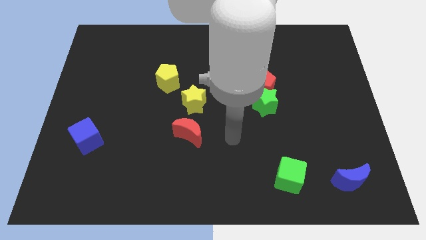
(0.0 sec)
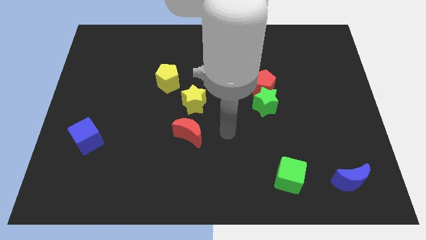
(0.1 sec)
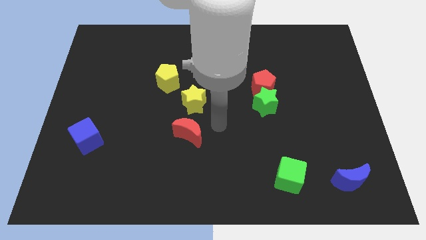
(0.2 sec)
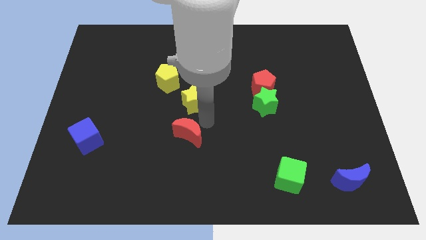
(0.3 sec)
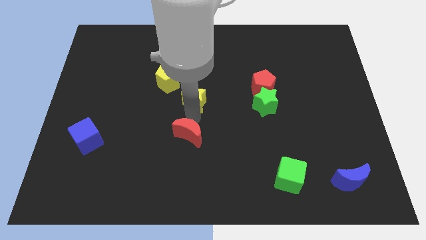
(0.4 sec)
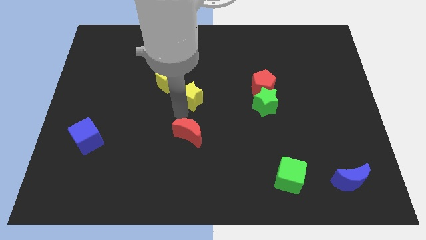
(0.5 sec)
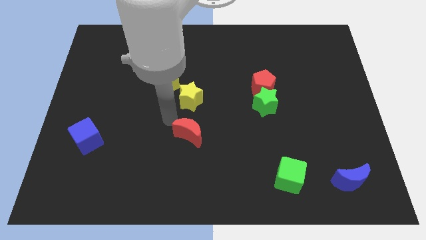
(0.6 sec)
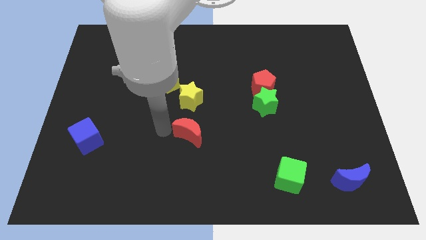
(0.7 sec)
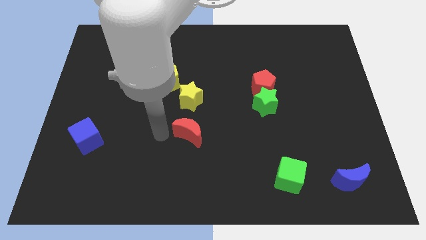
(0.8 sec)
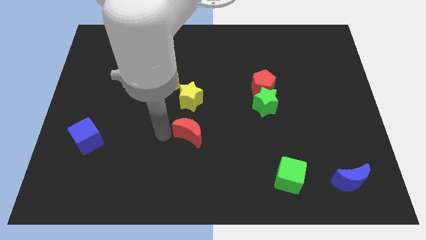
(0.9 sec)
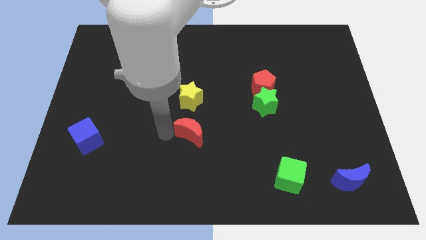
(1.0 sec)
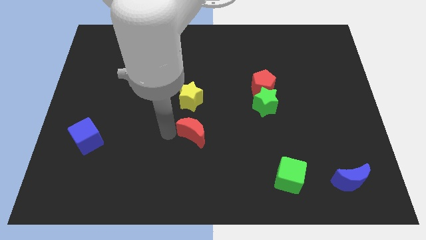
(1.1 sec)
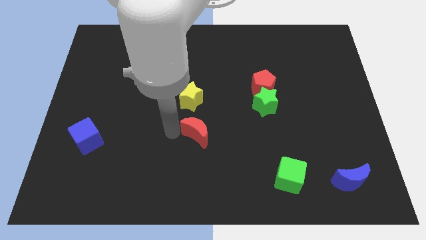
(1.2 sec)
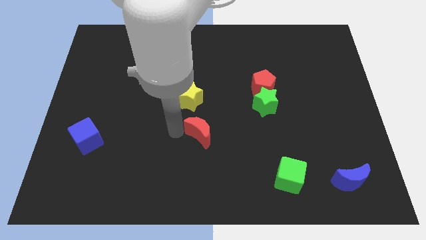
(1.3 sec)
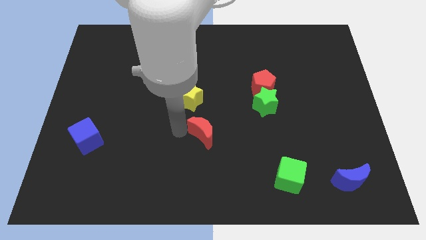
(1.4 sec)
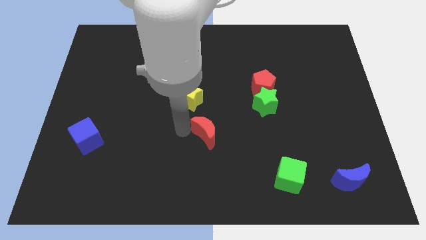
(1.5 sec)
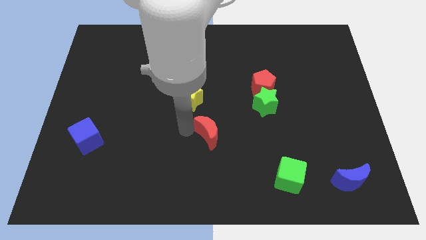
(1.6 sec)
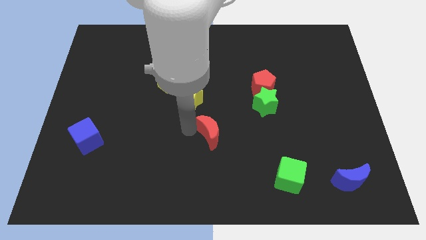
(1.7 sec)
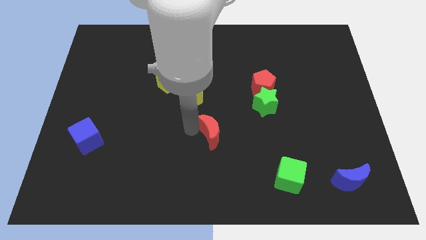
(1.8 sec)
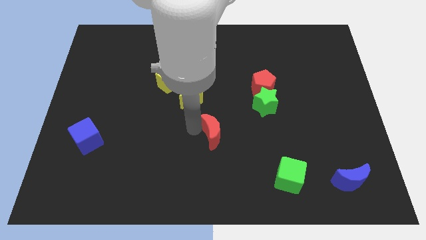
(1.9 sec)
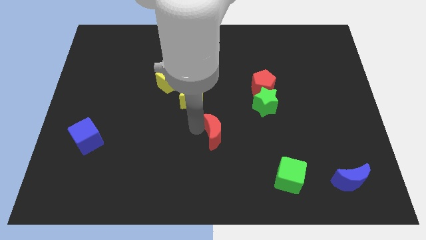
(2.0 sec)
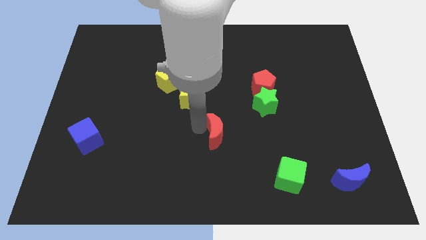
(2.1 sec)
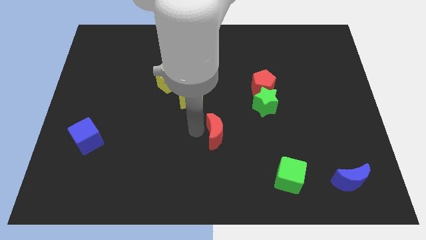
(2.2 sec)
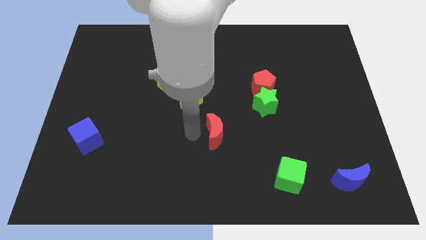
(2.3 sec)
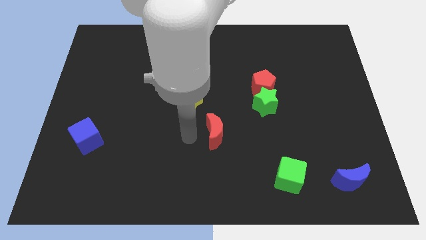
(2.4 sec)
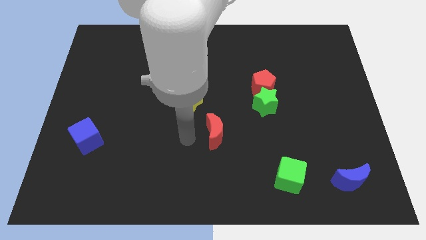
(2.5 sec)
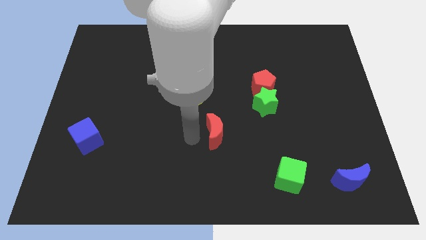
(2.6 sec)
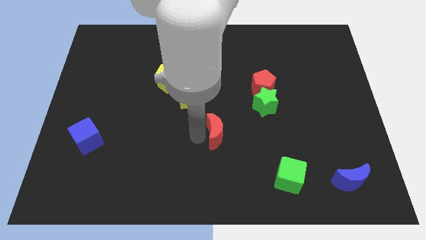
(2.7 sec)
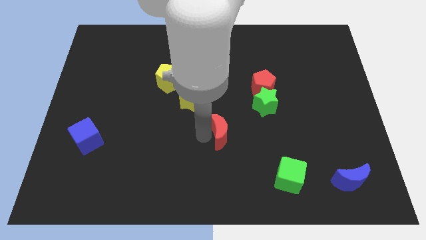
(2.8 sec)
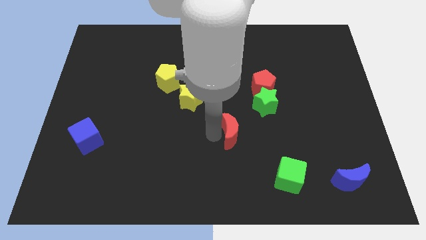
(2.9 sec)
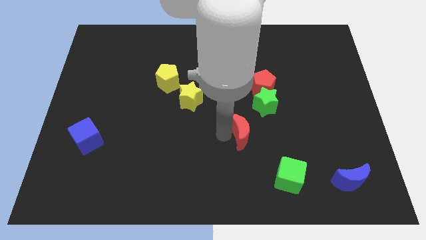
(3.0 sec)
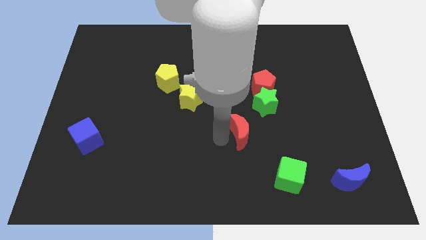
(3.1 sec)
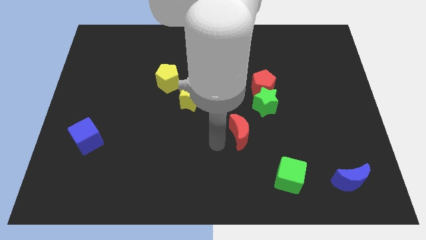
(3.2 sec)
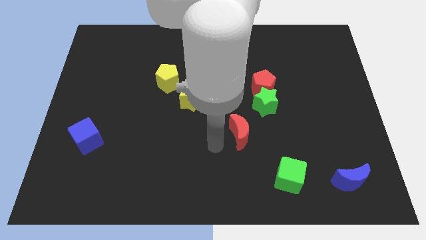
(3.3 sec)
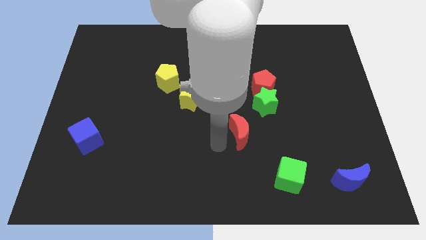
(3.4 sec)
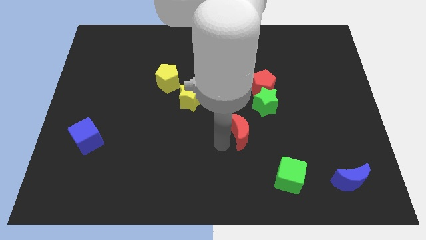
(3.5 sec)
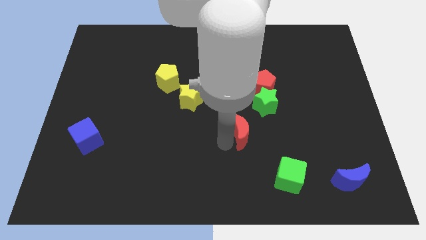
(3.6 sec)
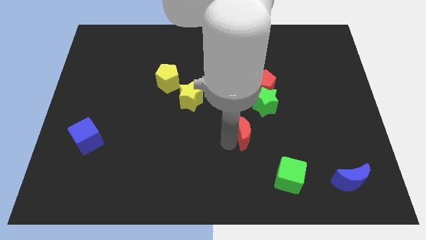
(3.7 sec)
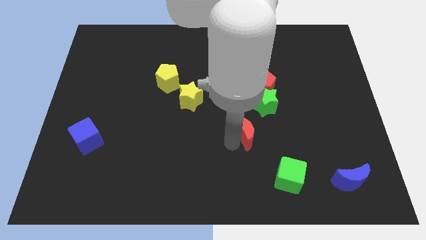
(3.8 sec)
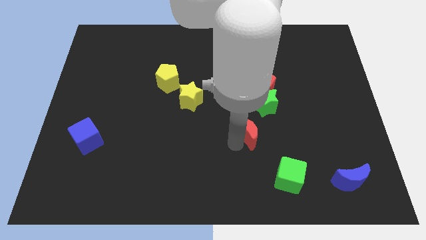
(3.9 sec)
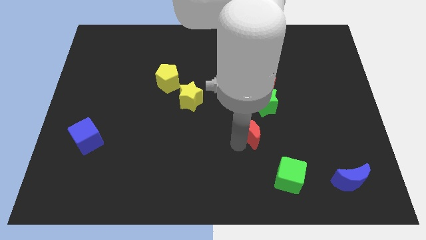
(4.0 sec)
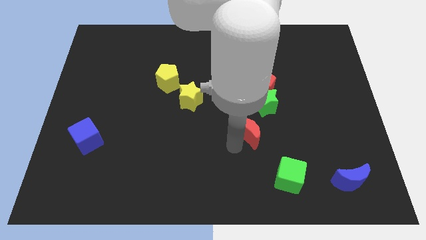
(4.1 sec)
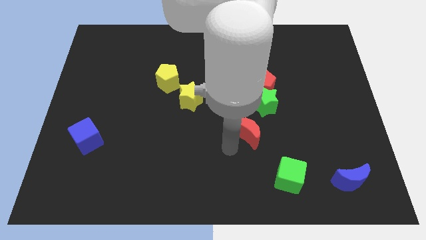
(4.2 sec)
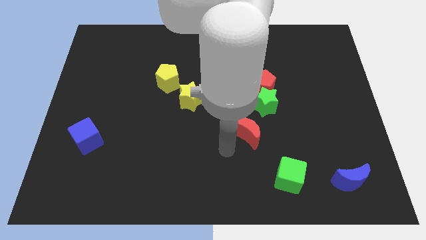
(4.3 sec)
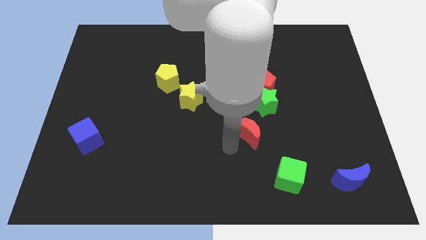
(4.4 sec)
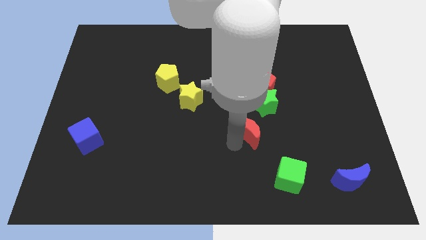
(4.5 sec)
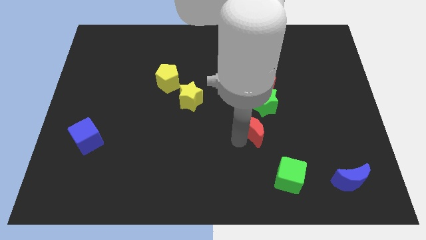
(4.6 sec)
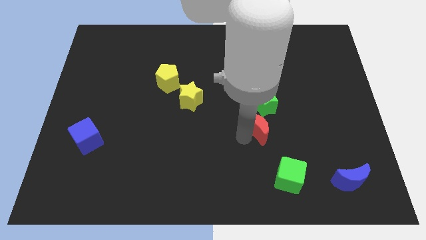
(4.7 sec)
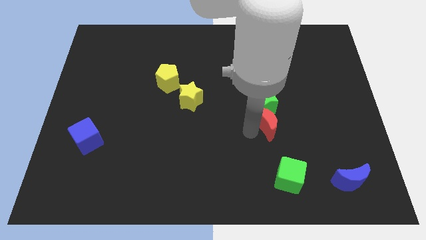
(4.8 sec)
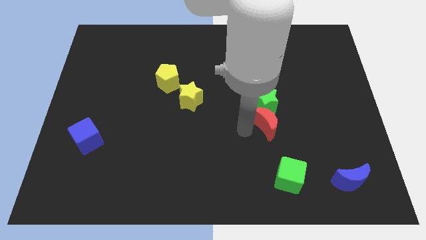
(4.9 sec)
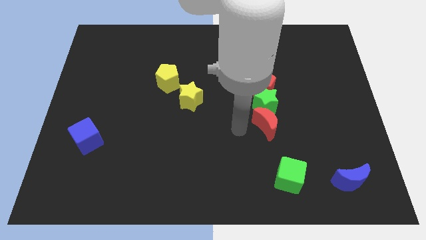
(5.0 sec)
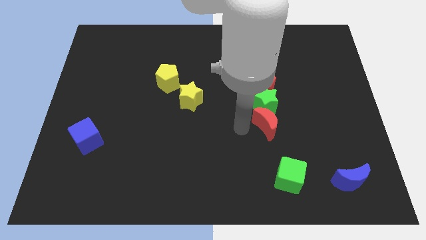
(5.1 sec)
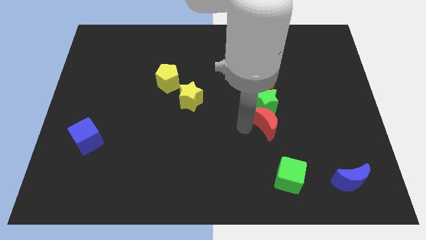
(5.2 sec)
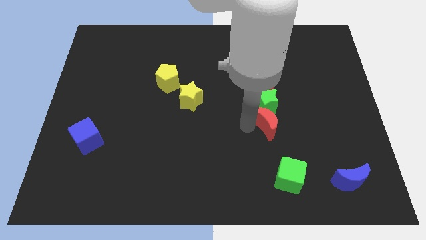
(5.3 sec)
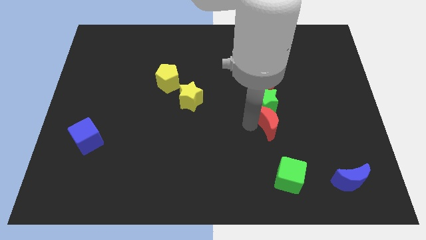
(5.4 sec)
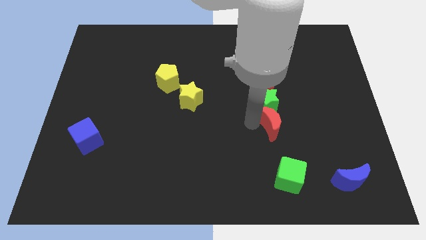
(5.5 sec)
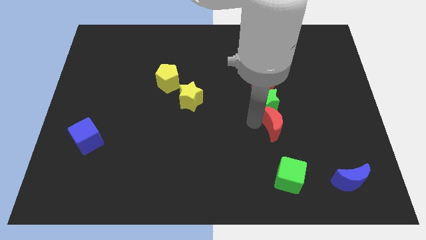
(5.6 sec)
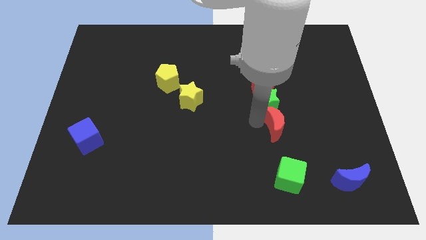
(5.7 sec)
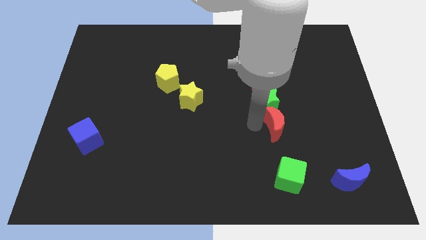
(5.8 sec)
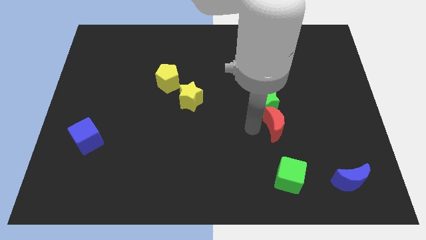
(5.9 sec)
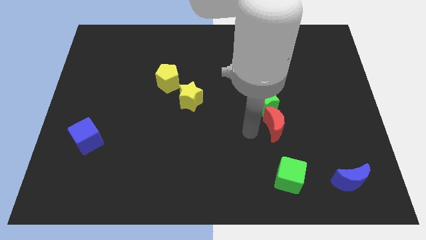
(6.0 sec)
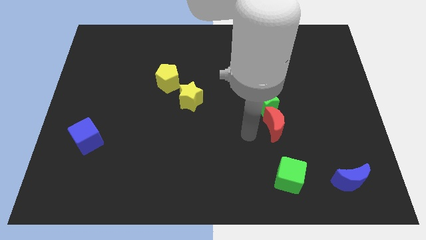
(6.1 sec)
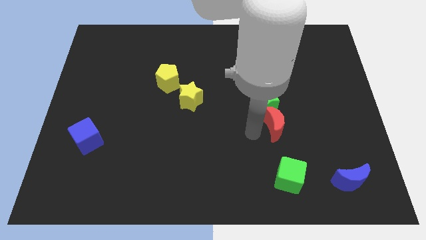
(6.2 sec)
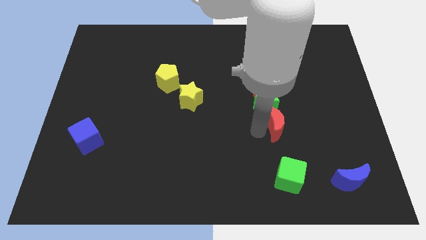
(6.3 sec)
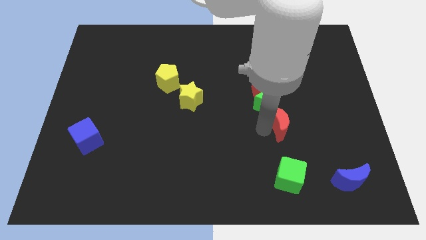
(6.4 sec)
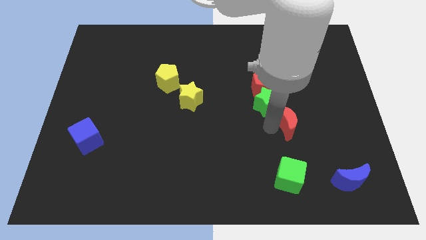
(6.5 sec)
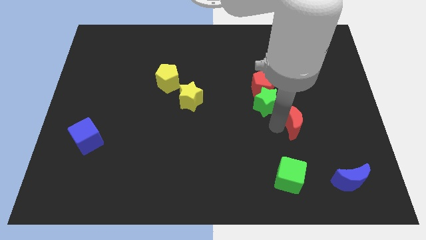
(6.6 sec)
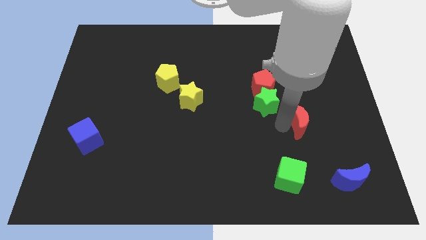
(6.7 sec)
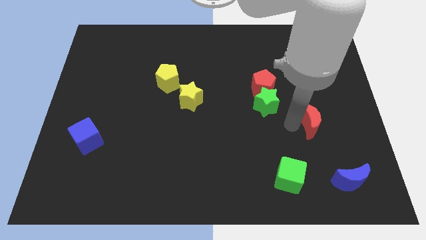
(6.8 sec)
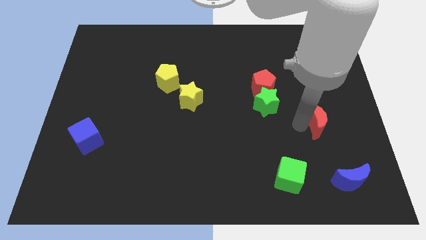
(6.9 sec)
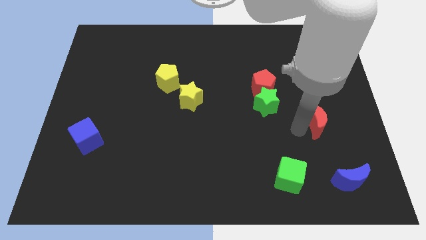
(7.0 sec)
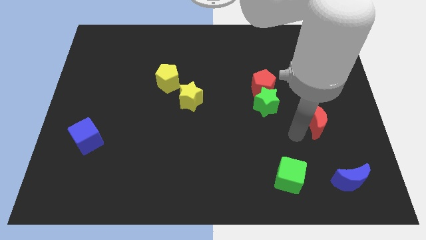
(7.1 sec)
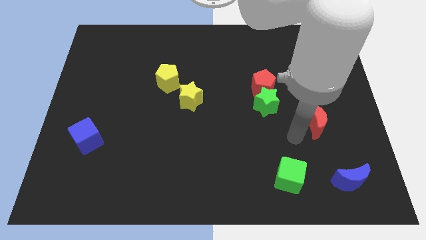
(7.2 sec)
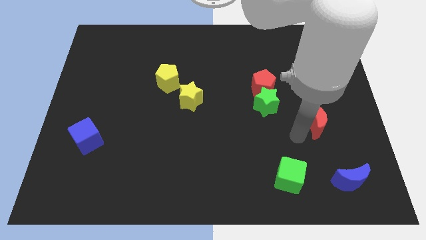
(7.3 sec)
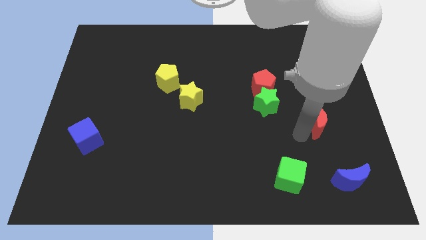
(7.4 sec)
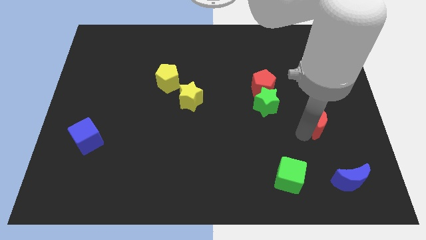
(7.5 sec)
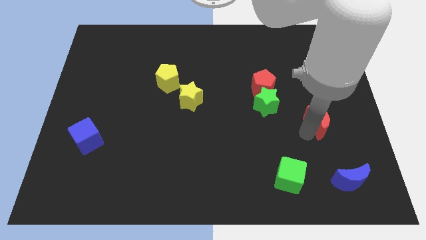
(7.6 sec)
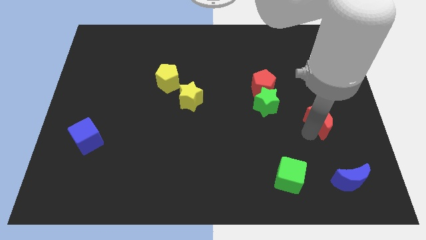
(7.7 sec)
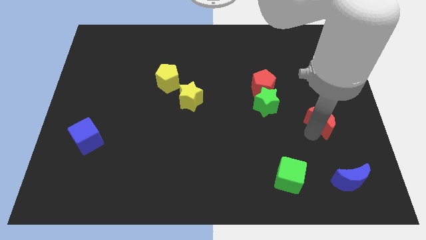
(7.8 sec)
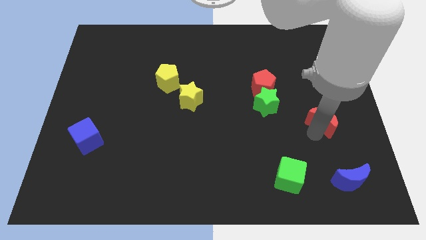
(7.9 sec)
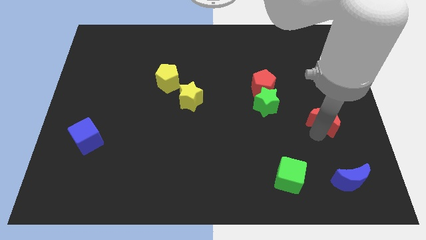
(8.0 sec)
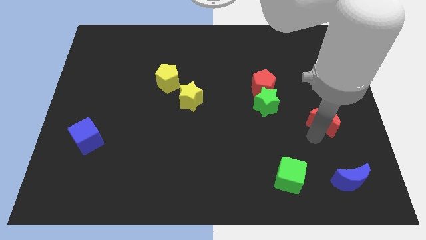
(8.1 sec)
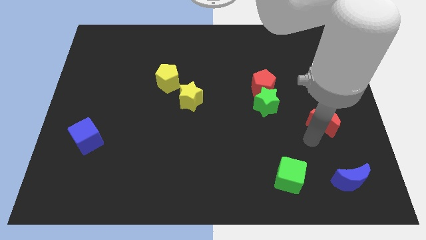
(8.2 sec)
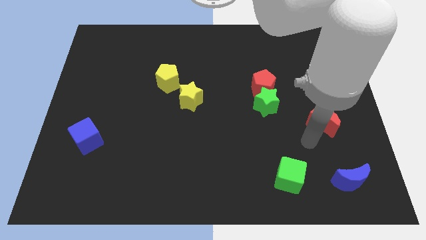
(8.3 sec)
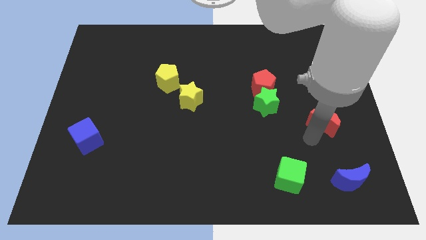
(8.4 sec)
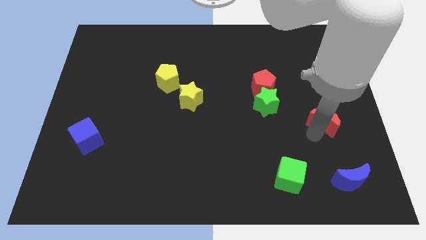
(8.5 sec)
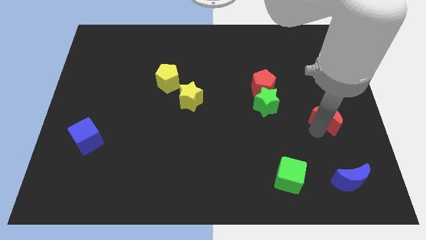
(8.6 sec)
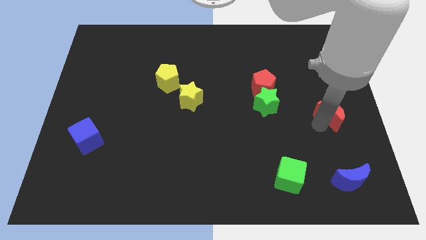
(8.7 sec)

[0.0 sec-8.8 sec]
put the red moon to the center right
